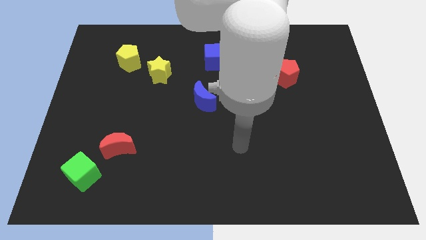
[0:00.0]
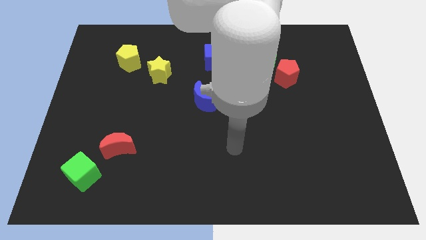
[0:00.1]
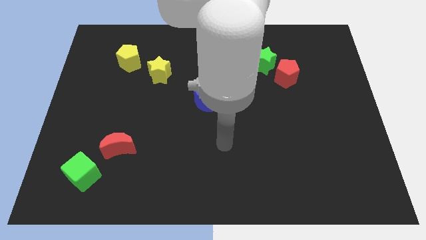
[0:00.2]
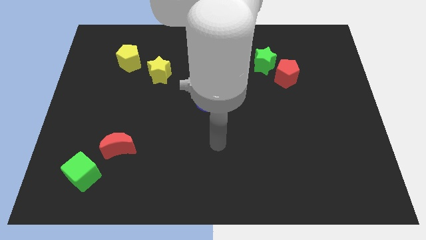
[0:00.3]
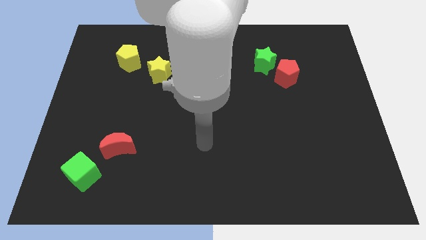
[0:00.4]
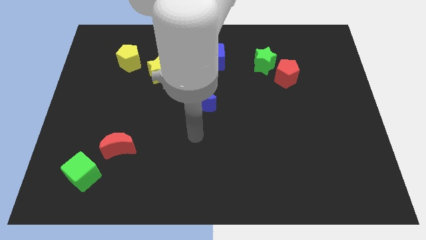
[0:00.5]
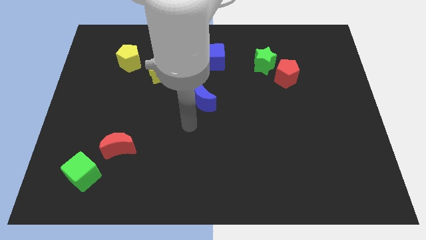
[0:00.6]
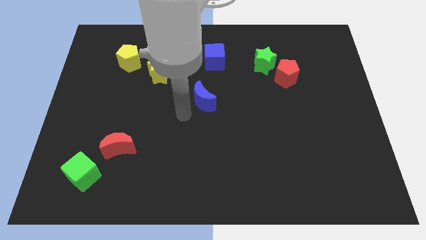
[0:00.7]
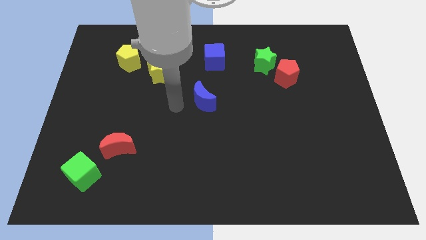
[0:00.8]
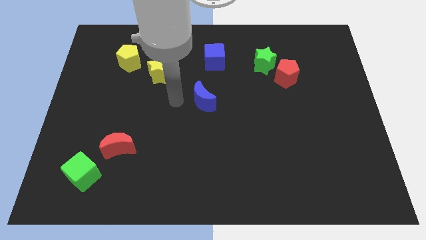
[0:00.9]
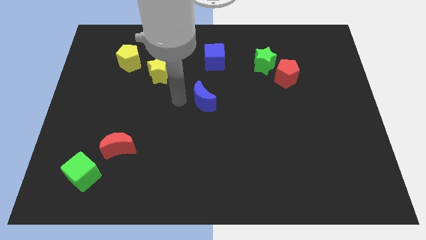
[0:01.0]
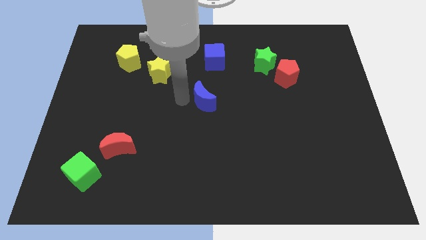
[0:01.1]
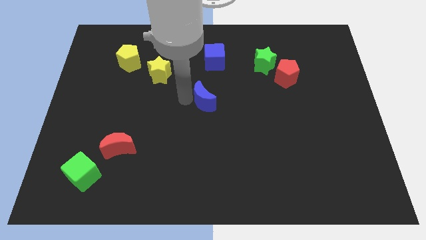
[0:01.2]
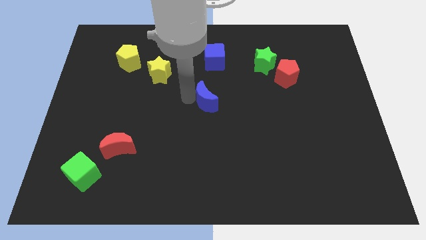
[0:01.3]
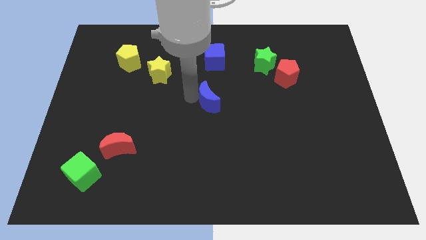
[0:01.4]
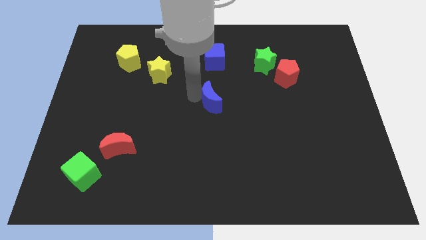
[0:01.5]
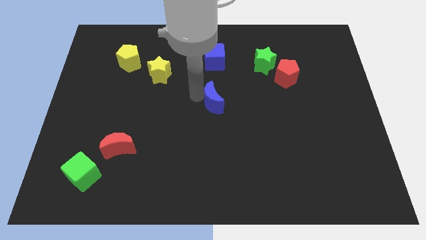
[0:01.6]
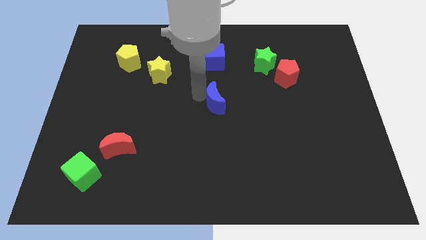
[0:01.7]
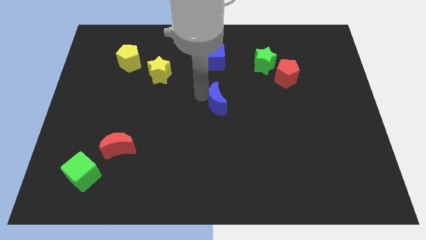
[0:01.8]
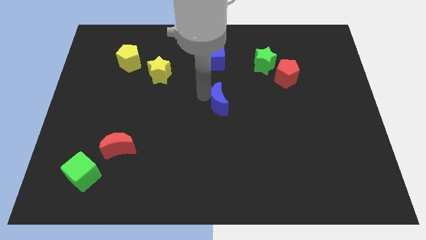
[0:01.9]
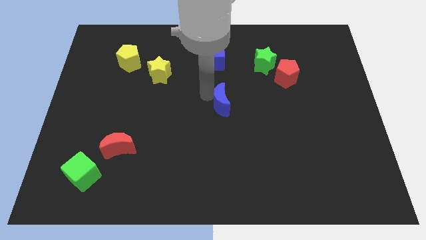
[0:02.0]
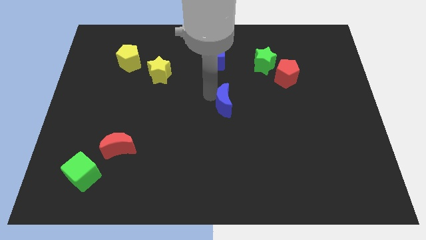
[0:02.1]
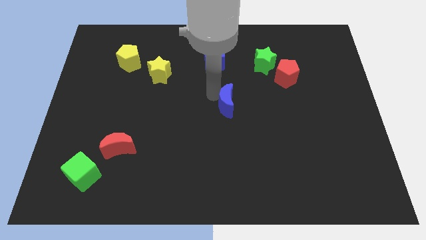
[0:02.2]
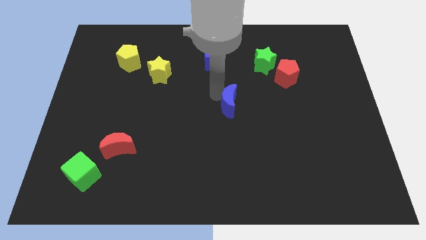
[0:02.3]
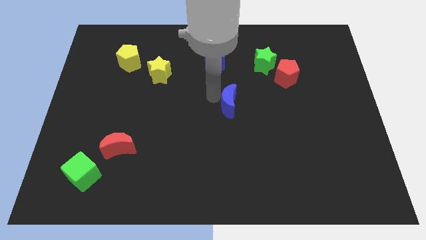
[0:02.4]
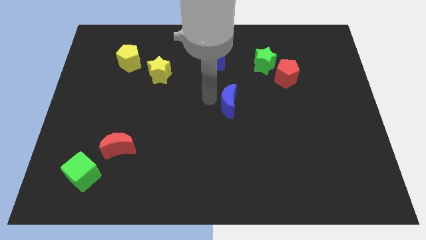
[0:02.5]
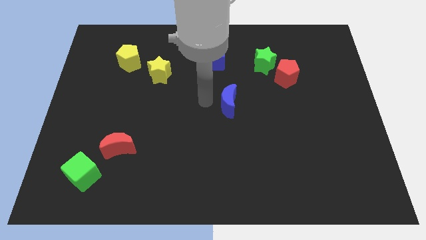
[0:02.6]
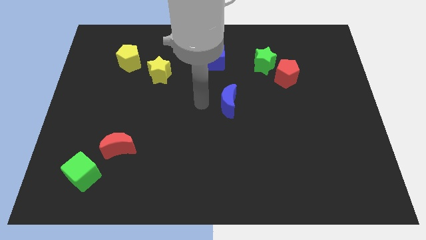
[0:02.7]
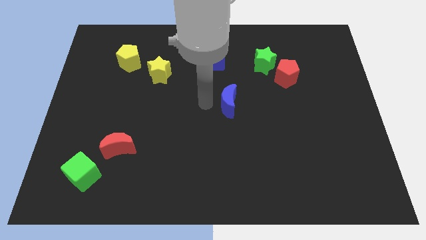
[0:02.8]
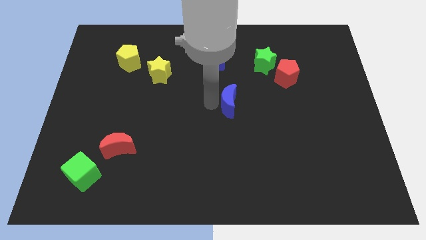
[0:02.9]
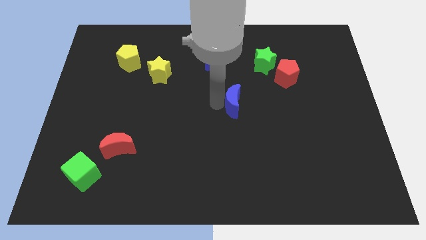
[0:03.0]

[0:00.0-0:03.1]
move the blue moon to the right somewhat

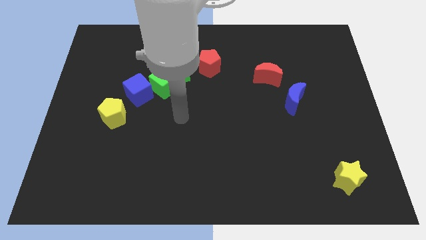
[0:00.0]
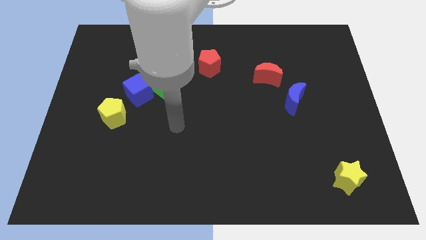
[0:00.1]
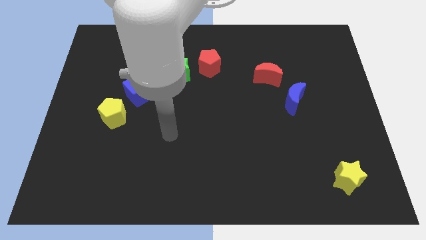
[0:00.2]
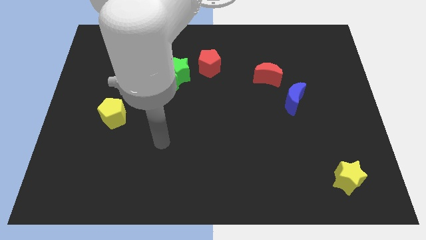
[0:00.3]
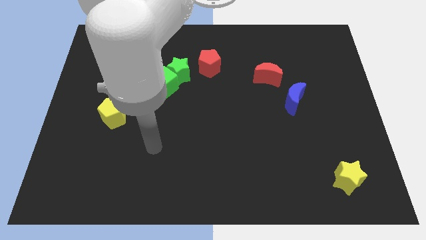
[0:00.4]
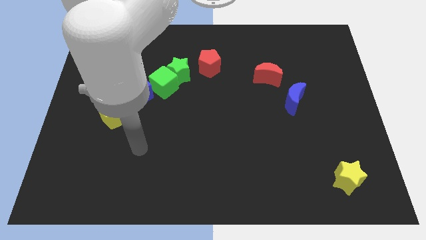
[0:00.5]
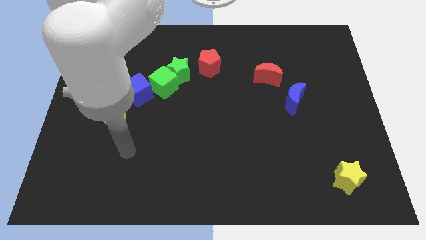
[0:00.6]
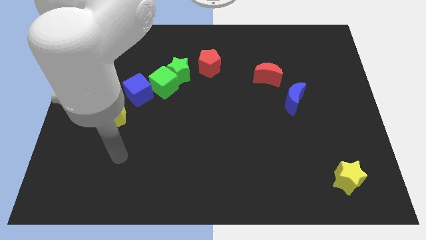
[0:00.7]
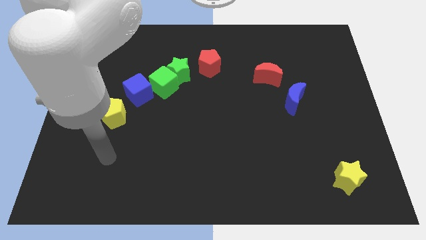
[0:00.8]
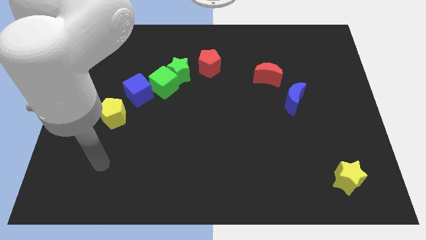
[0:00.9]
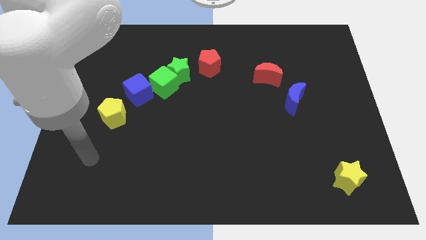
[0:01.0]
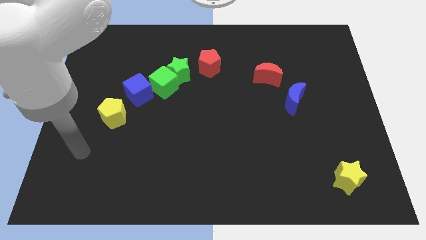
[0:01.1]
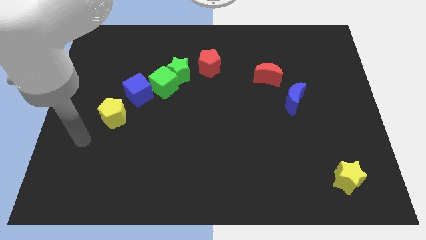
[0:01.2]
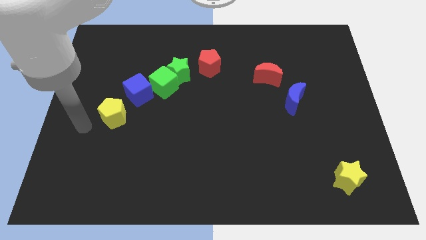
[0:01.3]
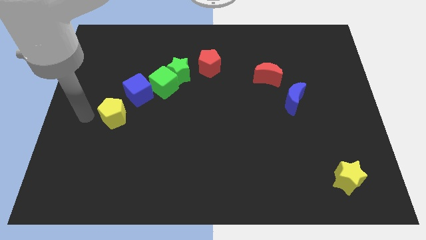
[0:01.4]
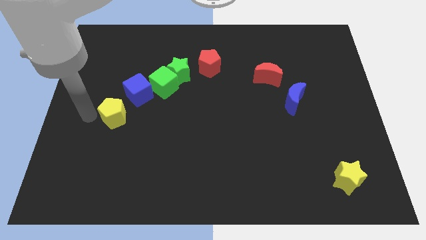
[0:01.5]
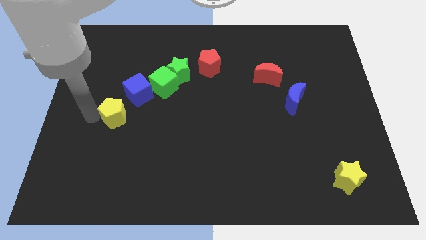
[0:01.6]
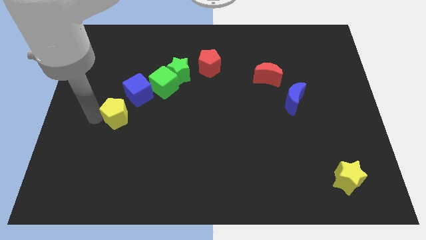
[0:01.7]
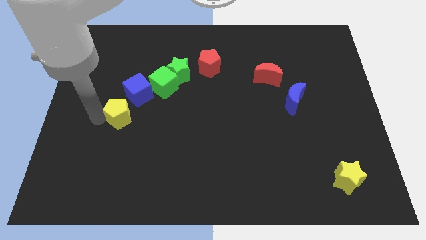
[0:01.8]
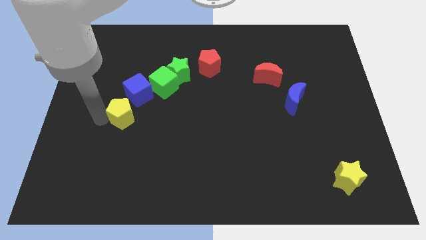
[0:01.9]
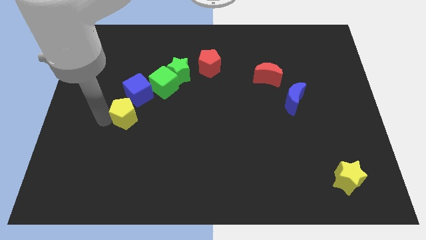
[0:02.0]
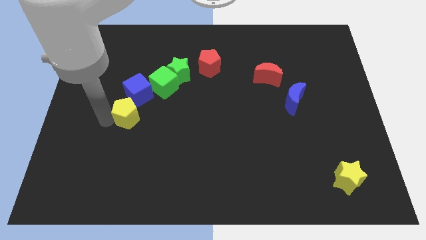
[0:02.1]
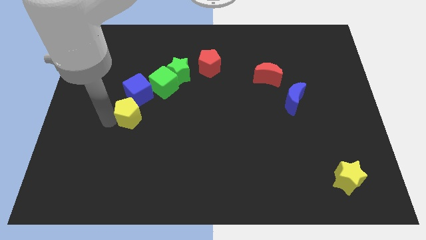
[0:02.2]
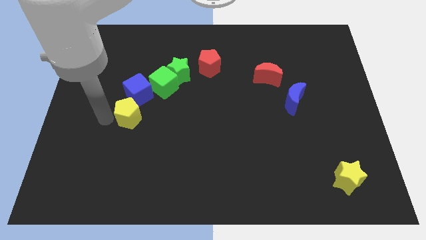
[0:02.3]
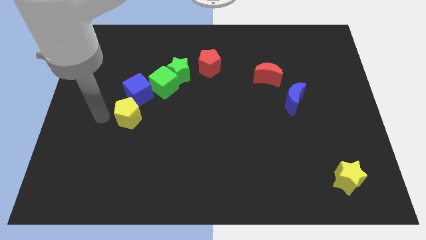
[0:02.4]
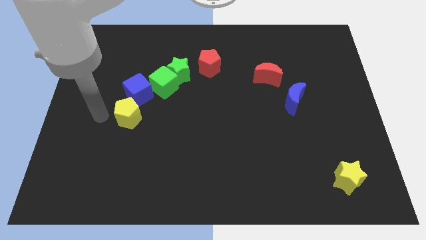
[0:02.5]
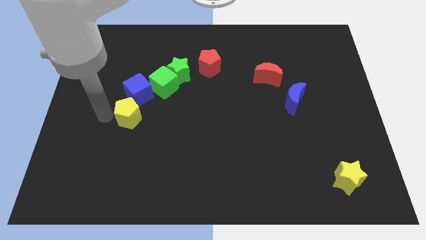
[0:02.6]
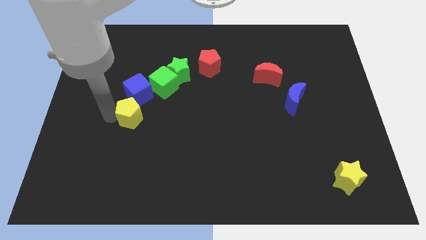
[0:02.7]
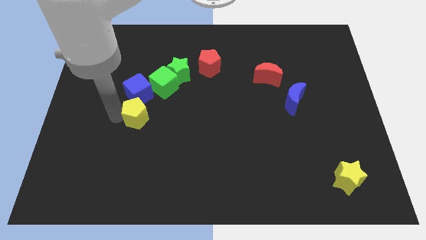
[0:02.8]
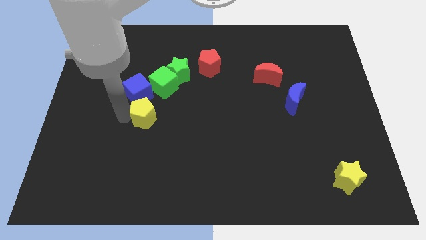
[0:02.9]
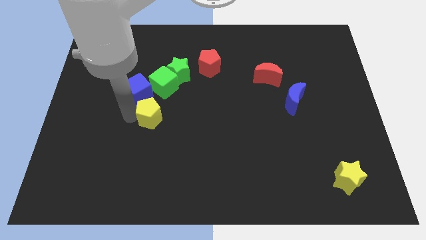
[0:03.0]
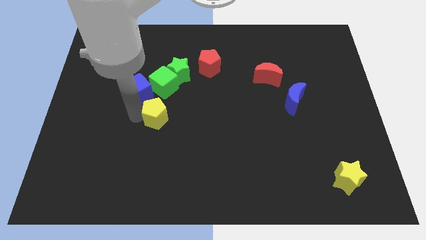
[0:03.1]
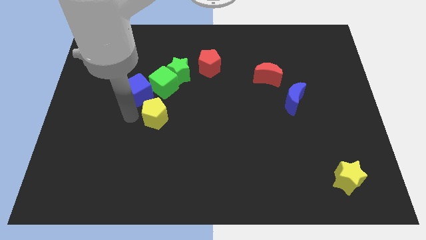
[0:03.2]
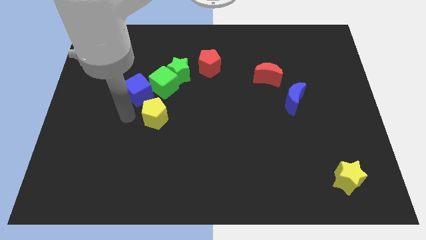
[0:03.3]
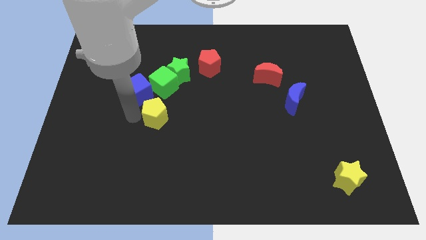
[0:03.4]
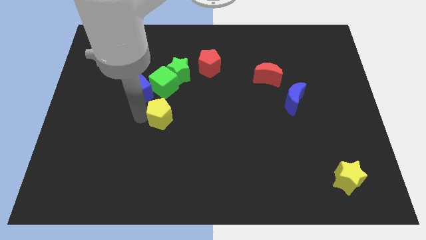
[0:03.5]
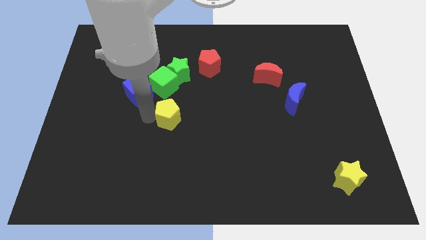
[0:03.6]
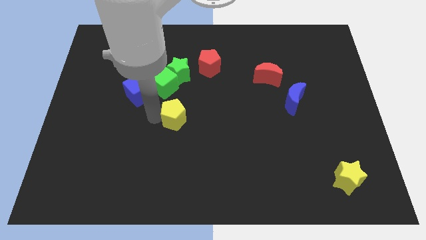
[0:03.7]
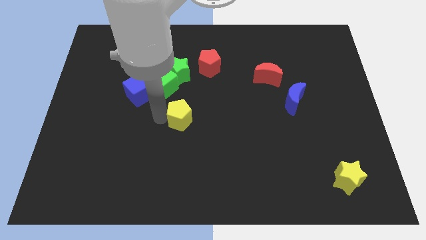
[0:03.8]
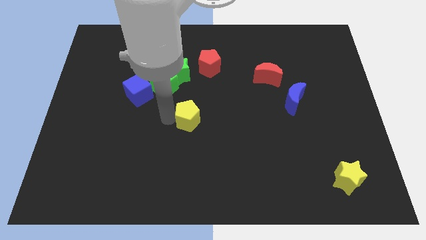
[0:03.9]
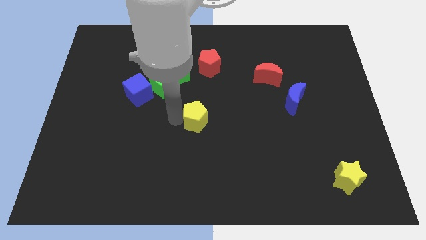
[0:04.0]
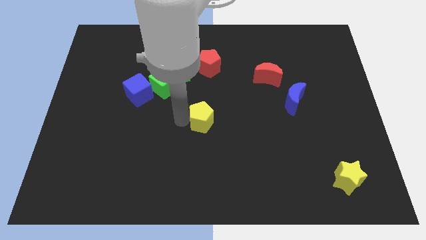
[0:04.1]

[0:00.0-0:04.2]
move the yellow pentagon to the right
